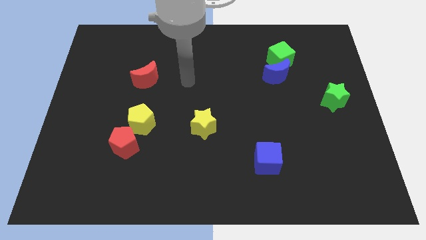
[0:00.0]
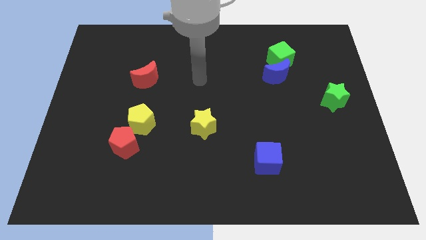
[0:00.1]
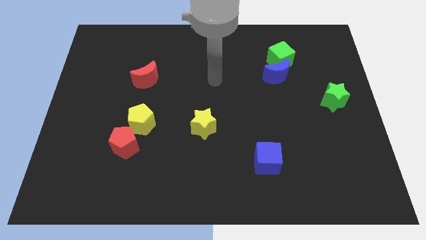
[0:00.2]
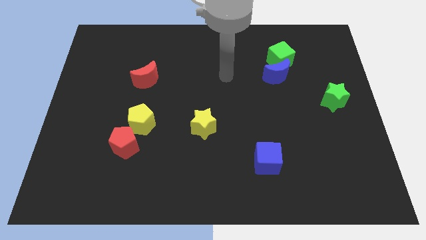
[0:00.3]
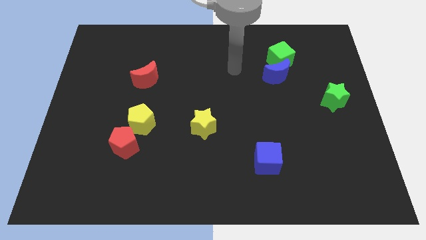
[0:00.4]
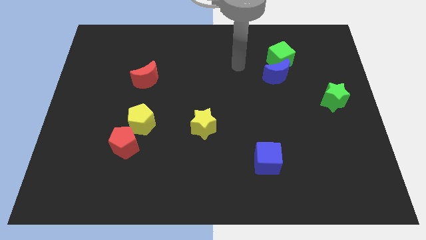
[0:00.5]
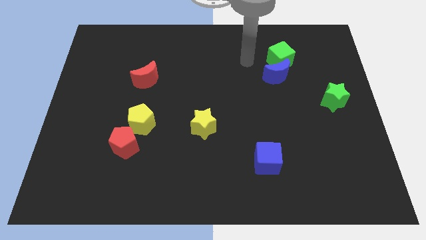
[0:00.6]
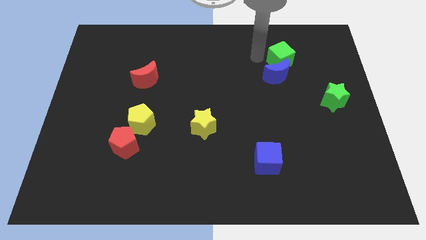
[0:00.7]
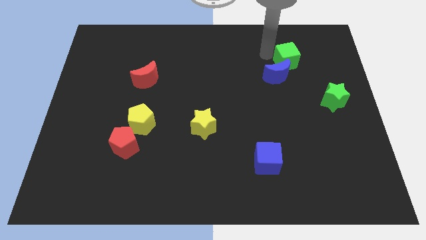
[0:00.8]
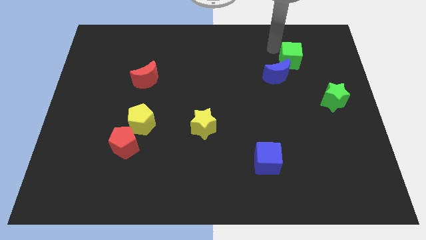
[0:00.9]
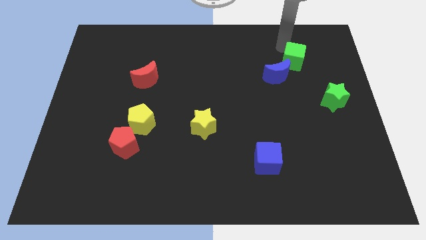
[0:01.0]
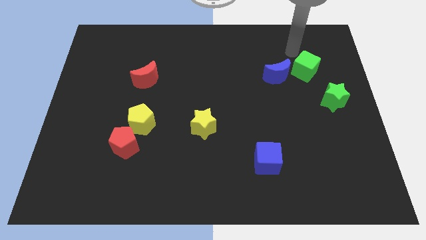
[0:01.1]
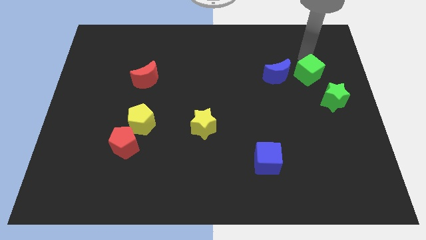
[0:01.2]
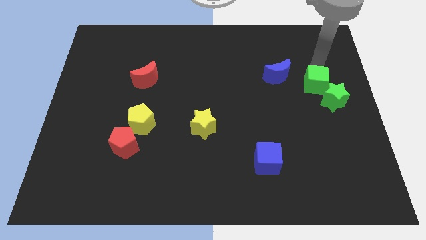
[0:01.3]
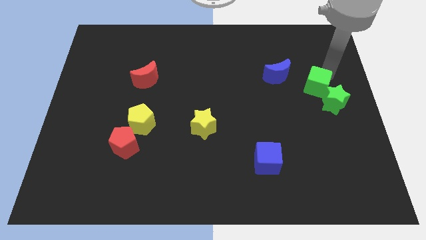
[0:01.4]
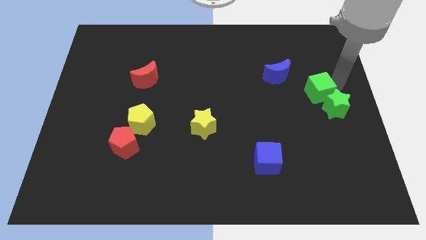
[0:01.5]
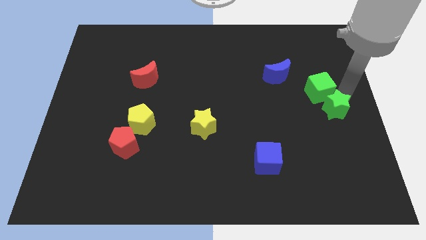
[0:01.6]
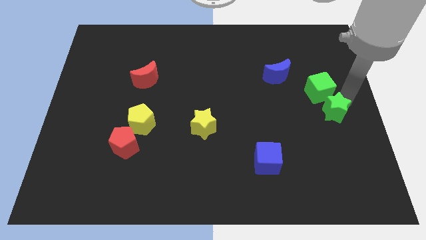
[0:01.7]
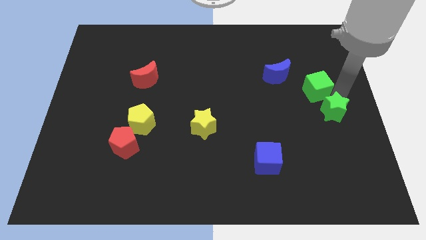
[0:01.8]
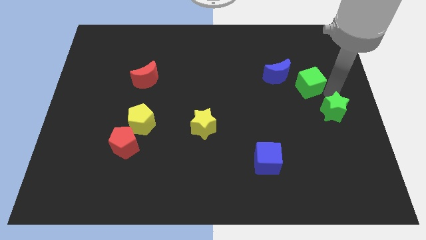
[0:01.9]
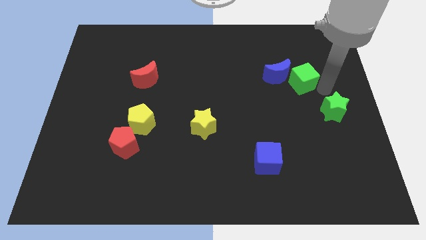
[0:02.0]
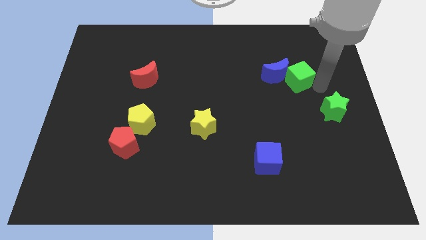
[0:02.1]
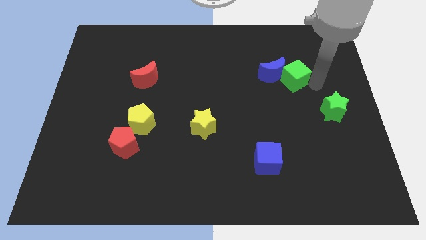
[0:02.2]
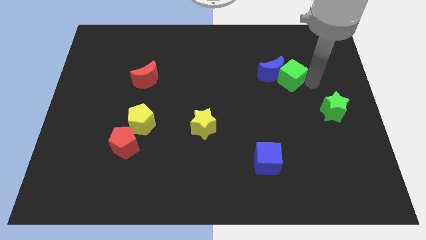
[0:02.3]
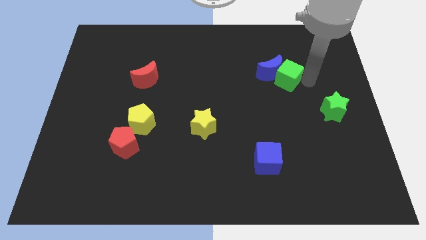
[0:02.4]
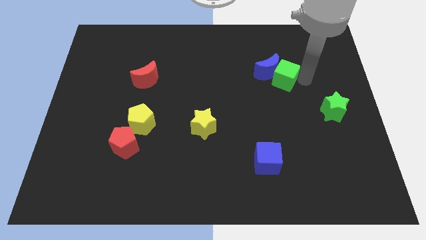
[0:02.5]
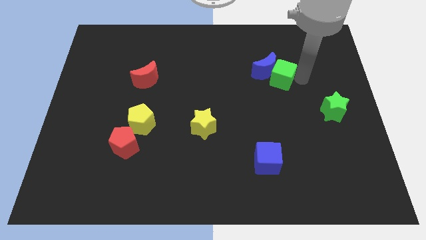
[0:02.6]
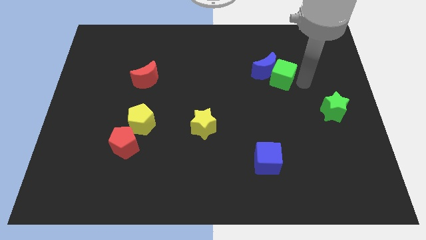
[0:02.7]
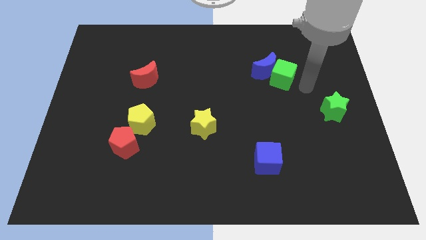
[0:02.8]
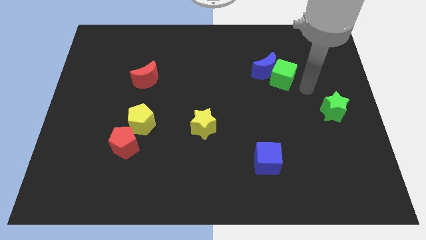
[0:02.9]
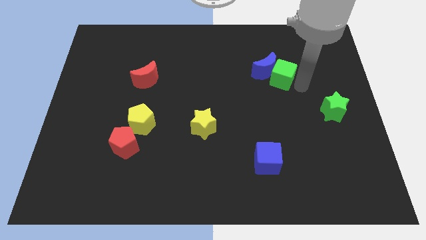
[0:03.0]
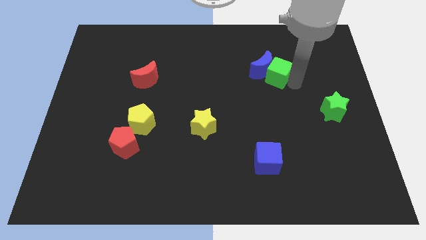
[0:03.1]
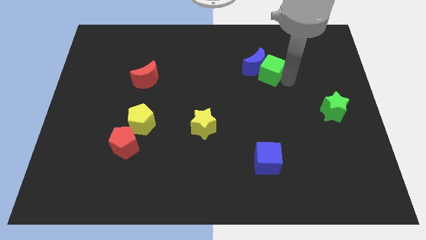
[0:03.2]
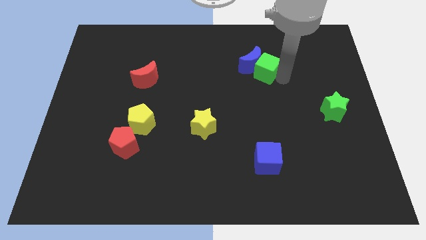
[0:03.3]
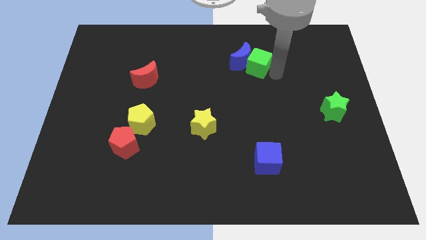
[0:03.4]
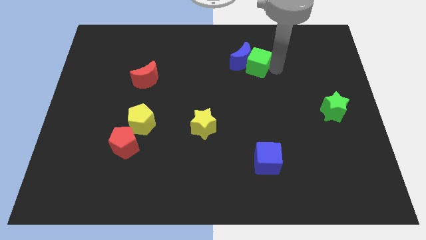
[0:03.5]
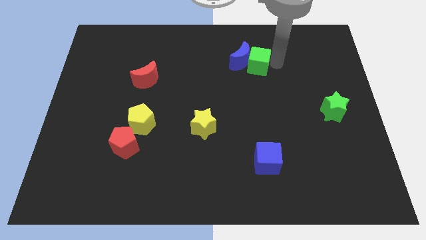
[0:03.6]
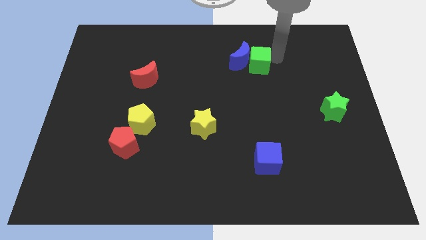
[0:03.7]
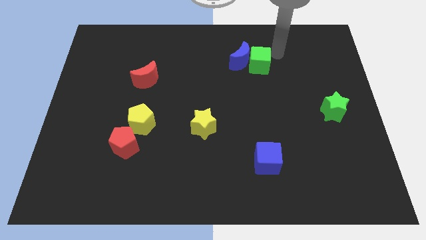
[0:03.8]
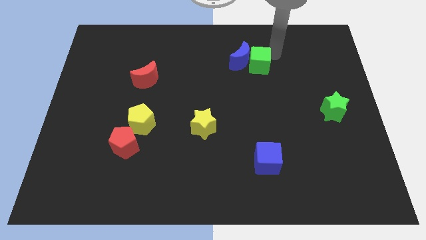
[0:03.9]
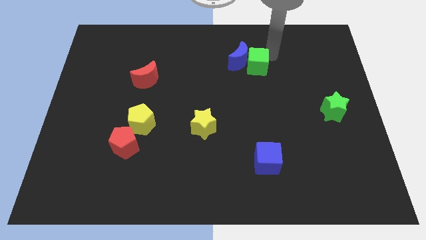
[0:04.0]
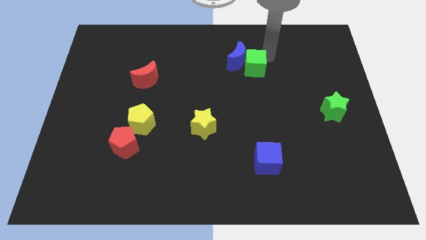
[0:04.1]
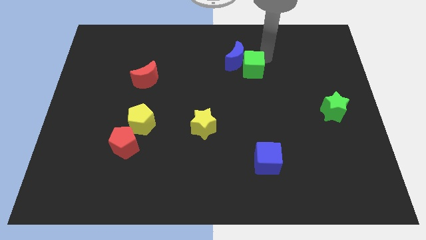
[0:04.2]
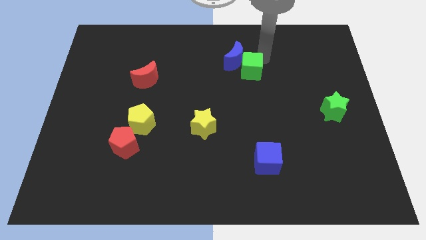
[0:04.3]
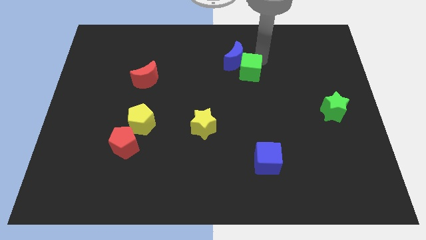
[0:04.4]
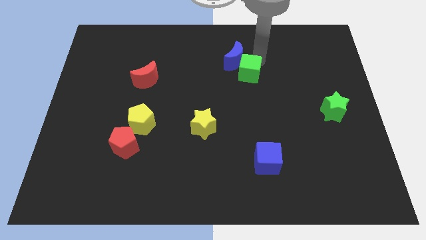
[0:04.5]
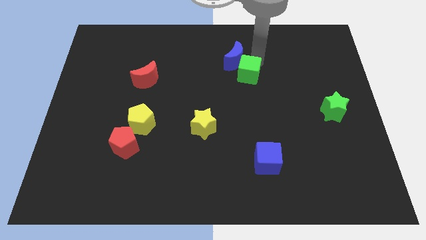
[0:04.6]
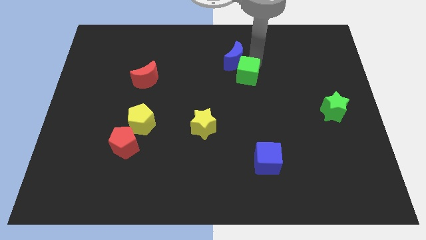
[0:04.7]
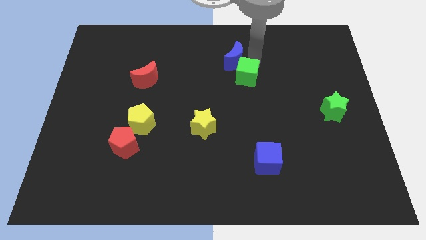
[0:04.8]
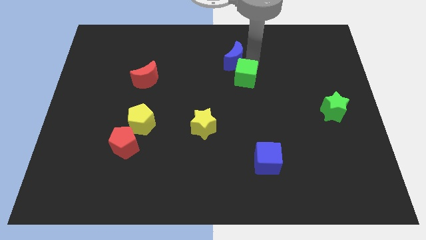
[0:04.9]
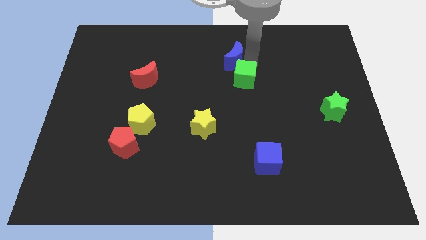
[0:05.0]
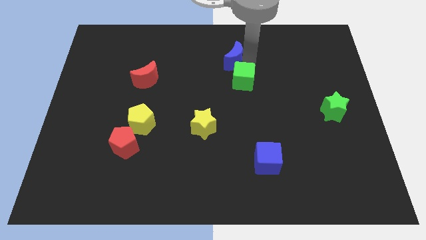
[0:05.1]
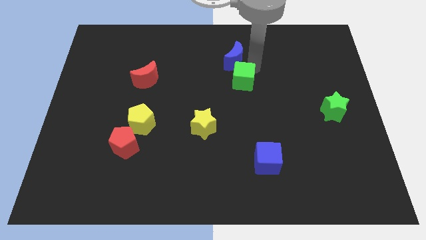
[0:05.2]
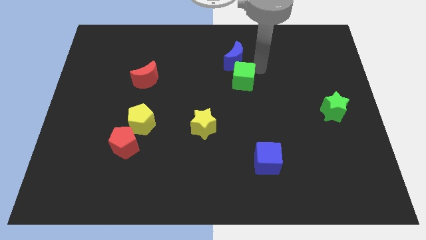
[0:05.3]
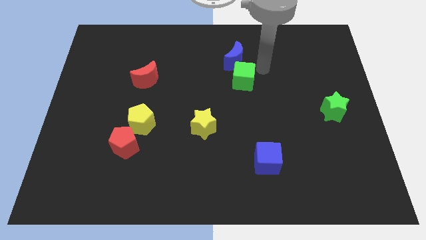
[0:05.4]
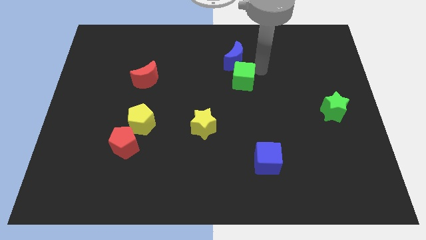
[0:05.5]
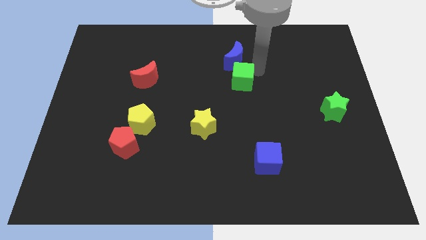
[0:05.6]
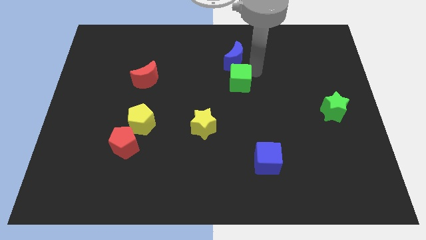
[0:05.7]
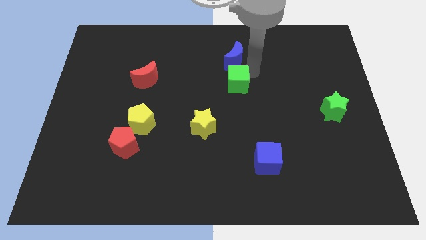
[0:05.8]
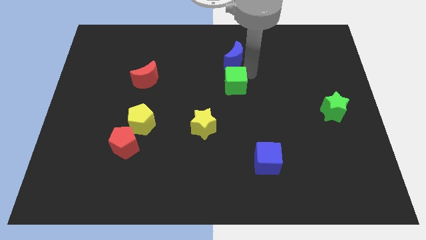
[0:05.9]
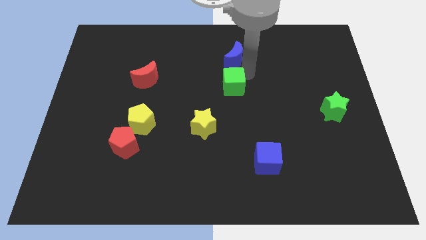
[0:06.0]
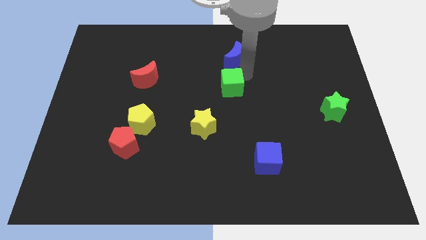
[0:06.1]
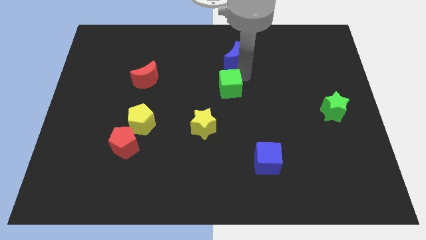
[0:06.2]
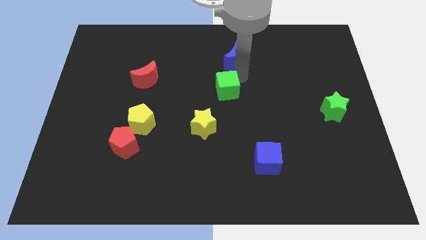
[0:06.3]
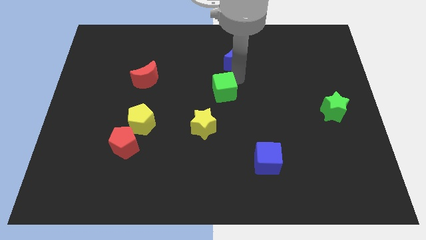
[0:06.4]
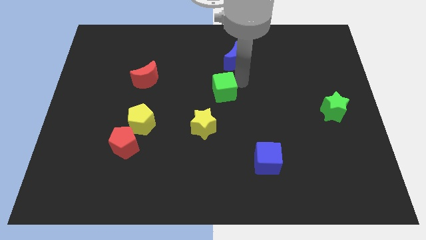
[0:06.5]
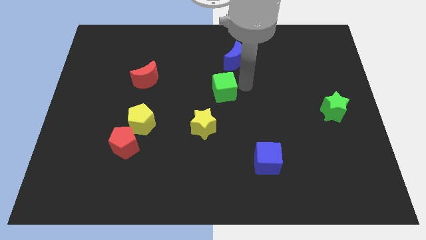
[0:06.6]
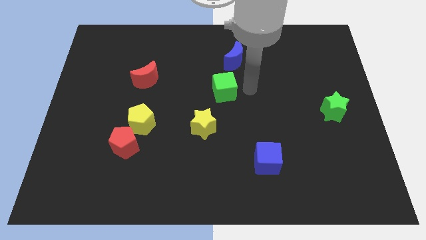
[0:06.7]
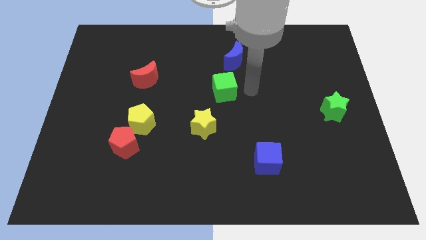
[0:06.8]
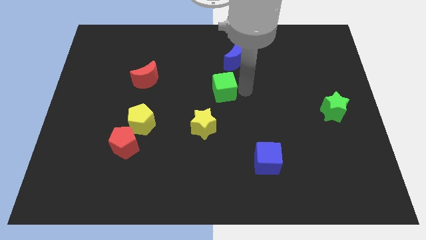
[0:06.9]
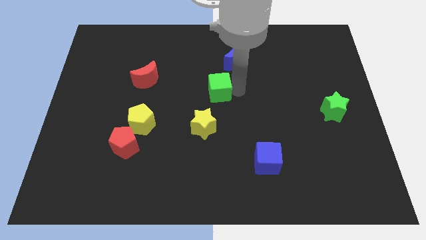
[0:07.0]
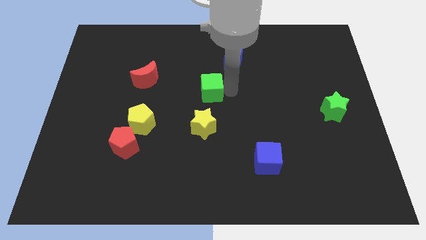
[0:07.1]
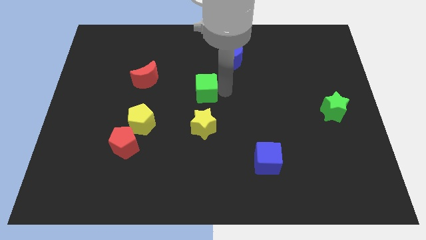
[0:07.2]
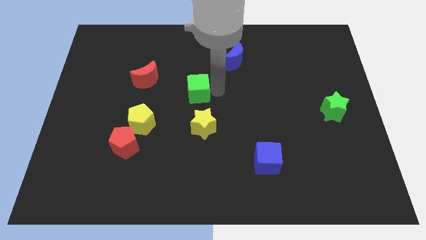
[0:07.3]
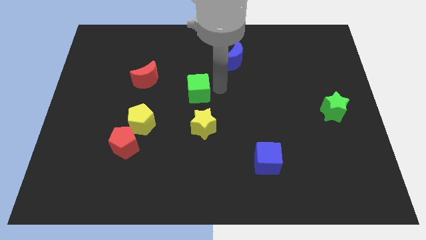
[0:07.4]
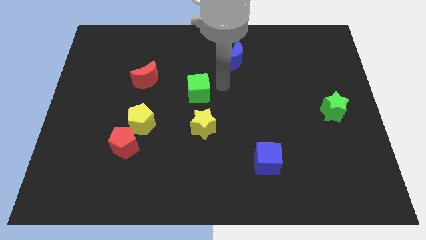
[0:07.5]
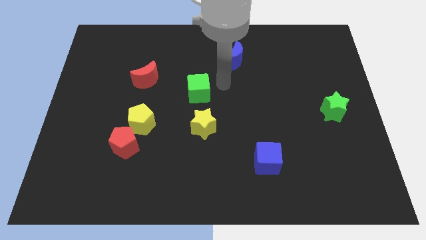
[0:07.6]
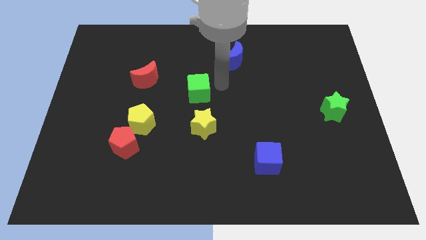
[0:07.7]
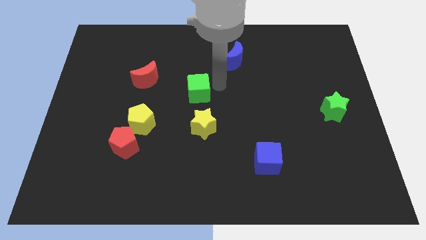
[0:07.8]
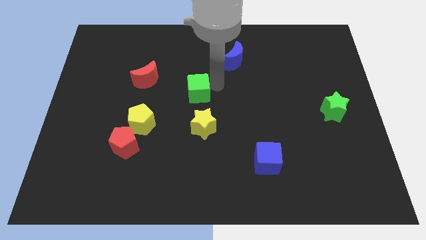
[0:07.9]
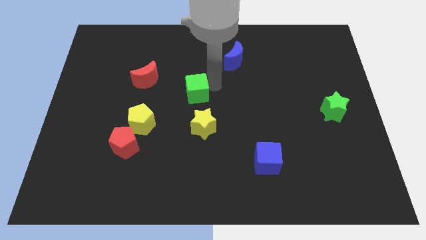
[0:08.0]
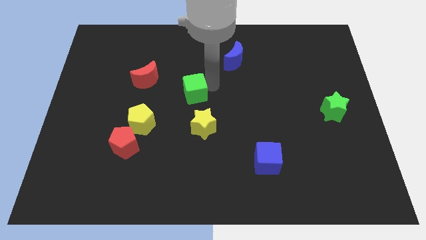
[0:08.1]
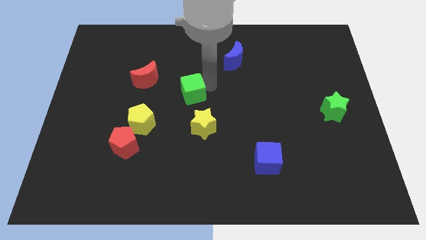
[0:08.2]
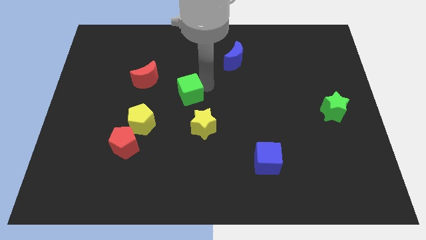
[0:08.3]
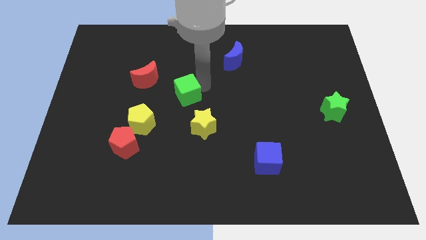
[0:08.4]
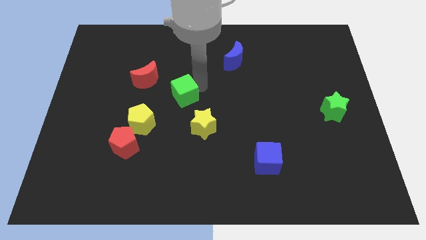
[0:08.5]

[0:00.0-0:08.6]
push the green cube diagonally up and to the right of the yellow pentagon
